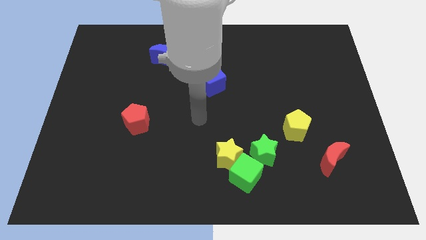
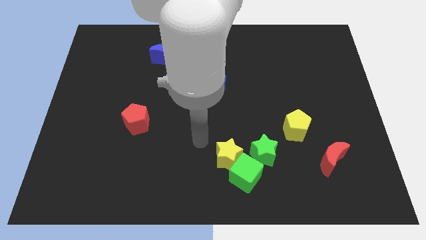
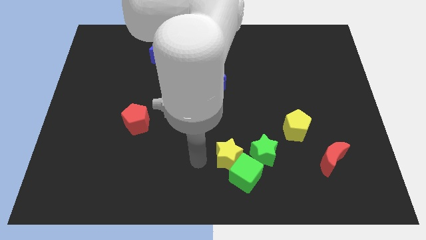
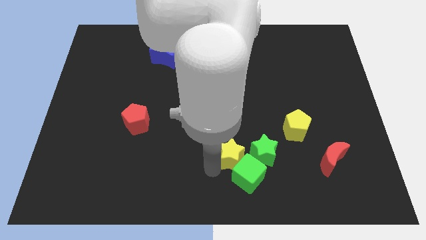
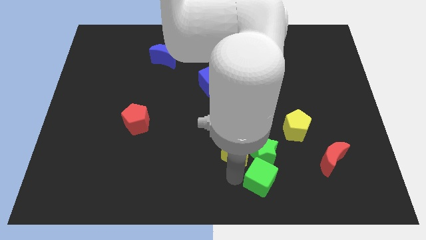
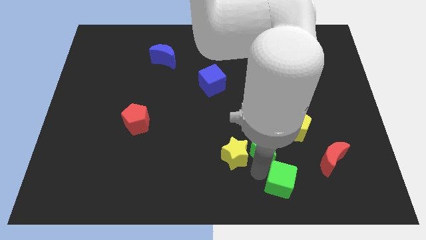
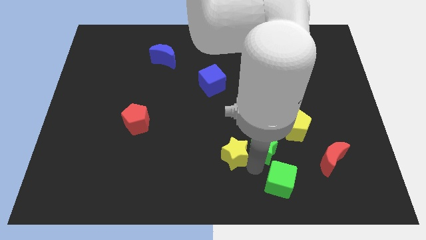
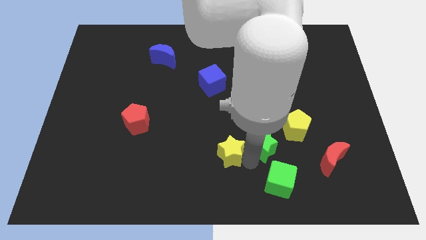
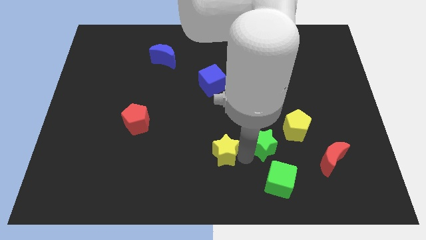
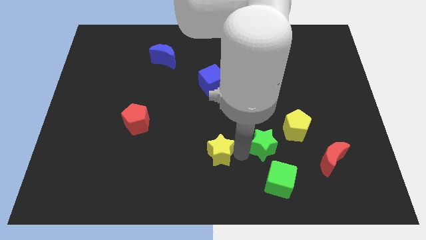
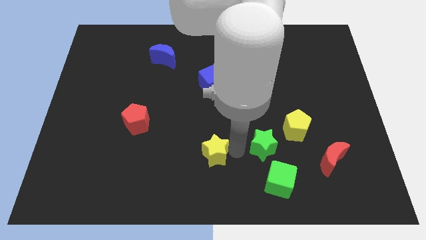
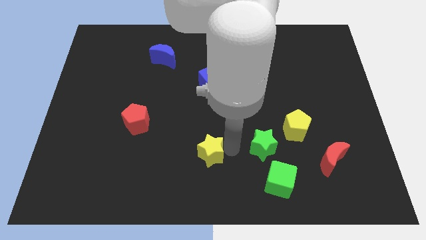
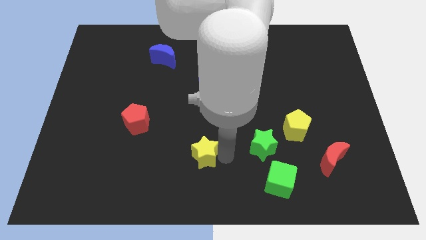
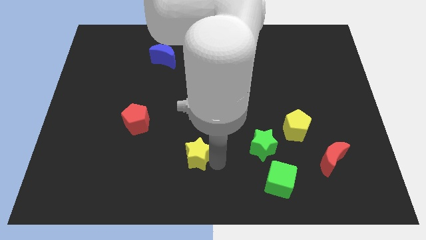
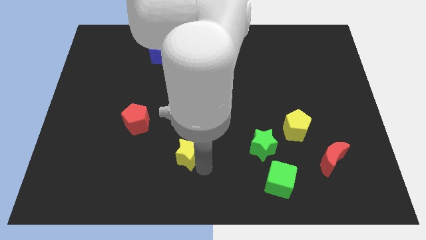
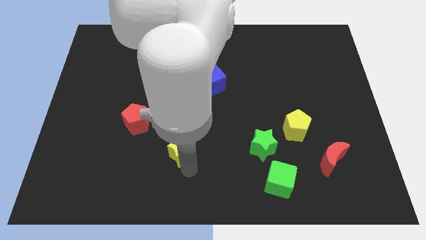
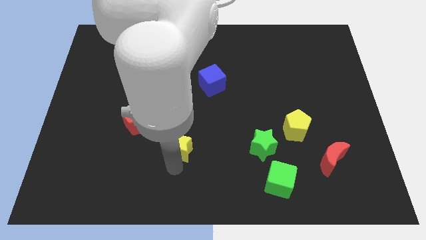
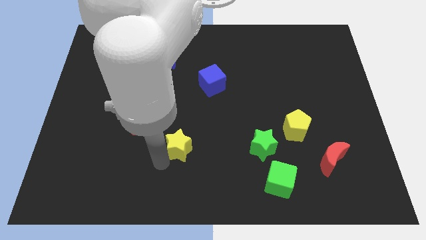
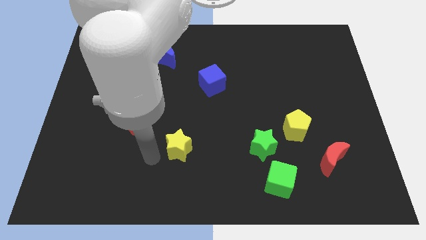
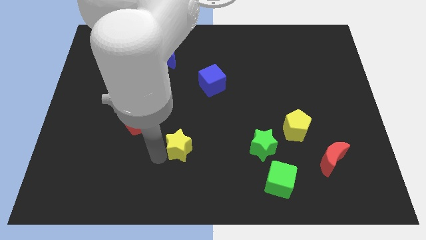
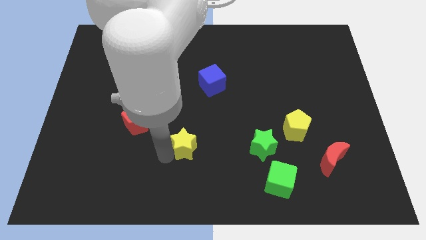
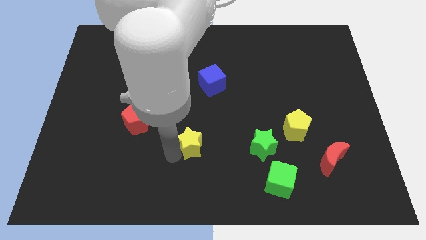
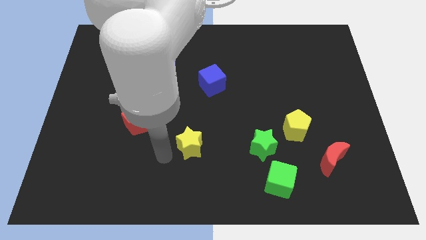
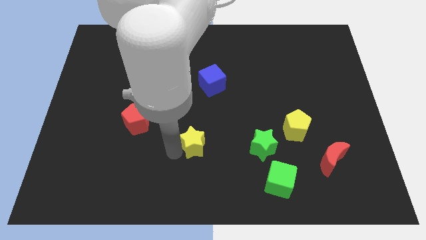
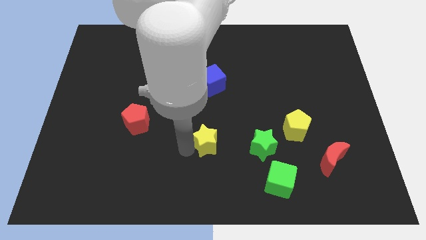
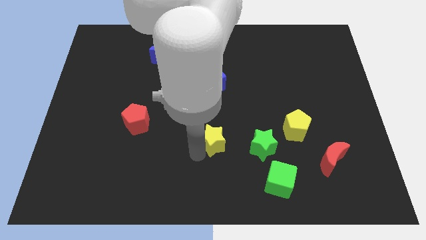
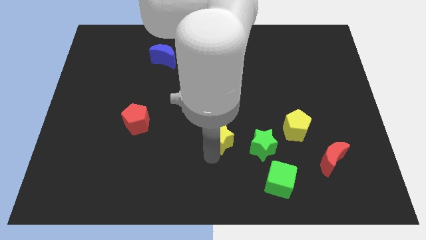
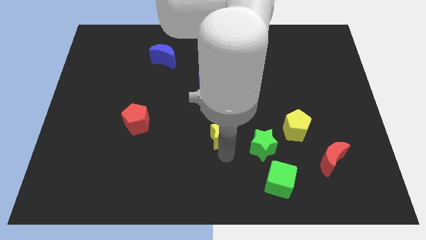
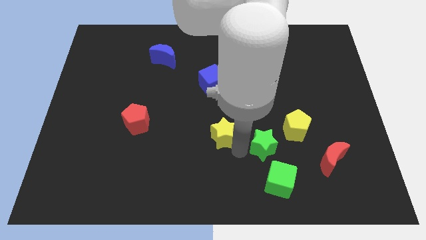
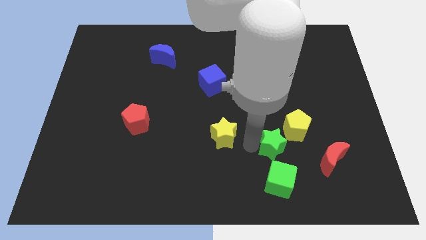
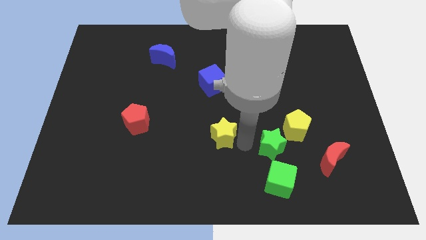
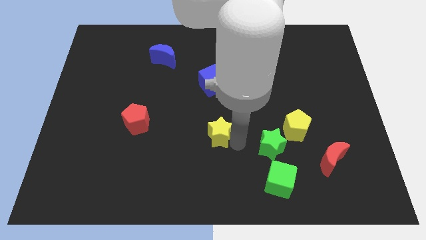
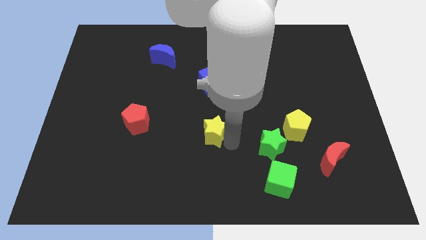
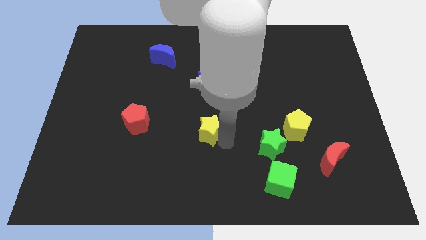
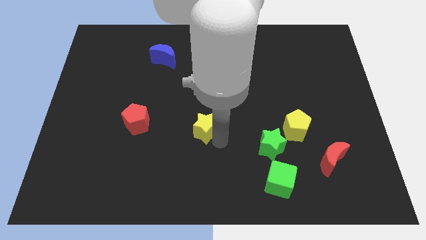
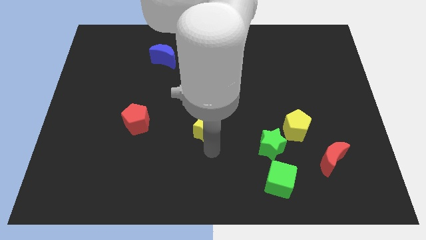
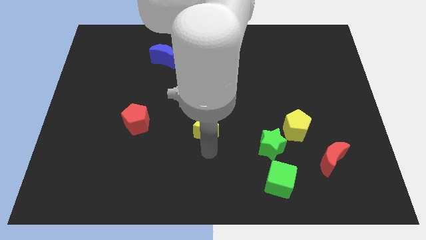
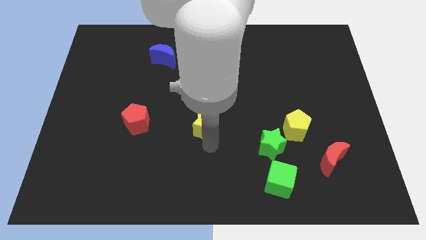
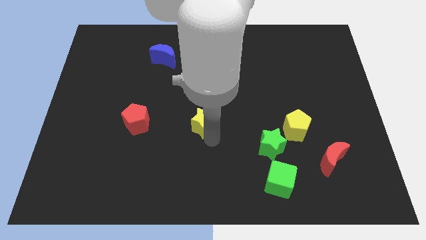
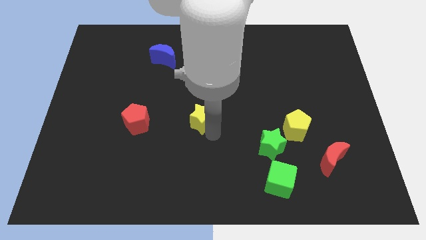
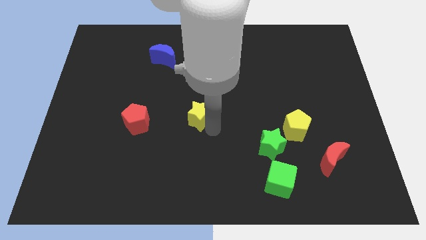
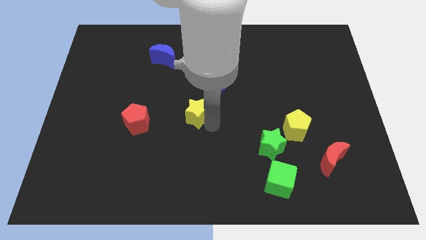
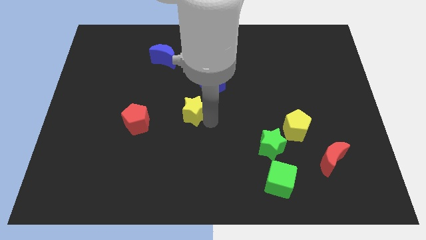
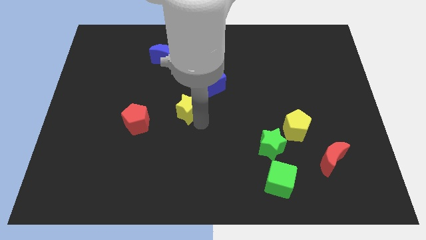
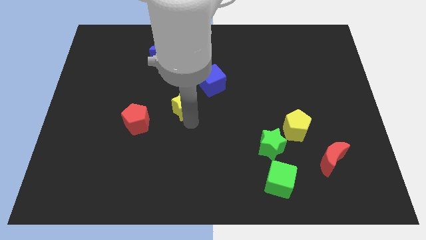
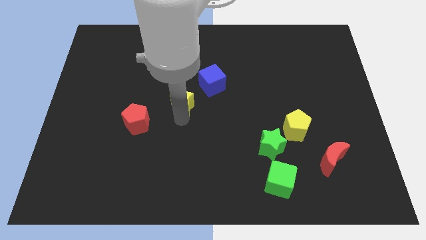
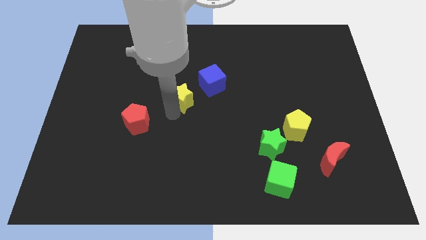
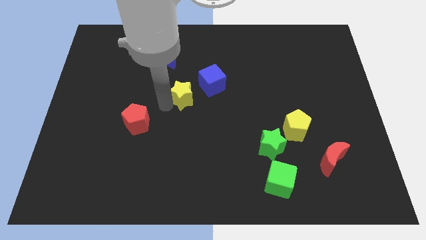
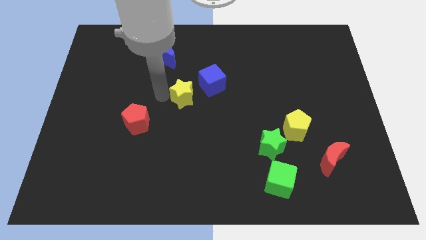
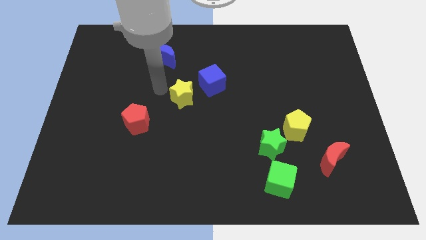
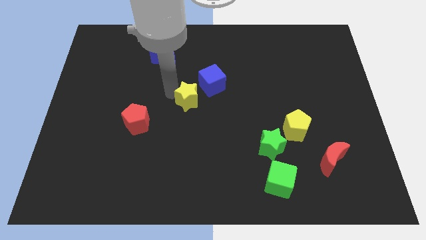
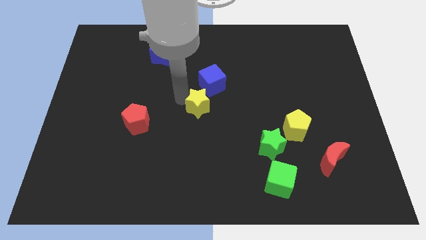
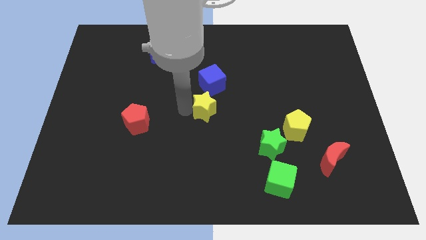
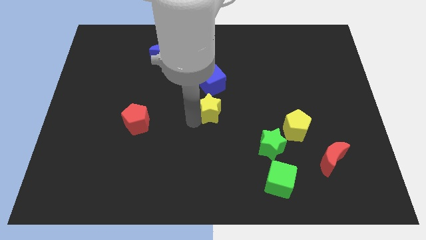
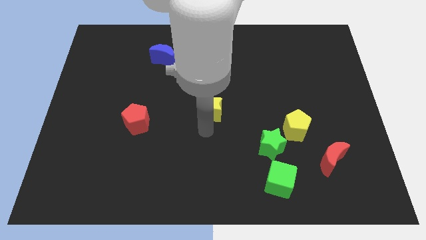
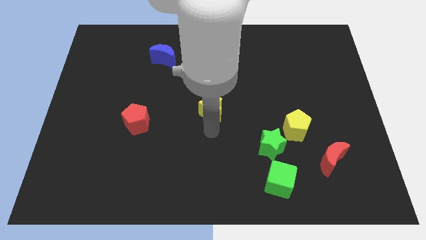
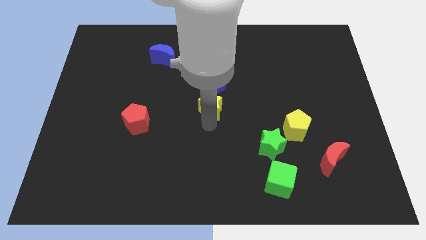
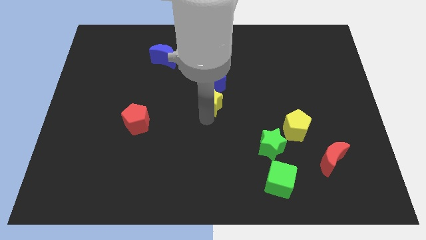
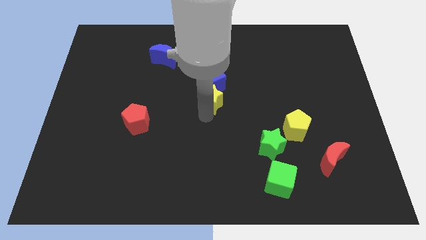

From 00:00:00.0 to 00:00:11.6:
slide the yellow star to the blue cube
